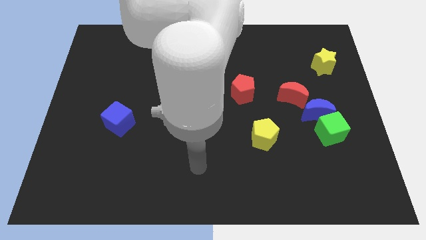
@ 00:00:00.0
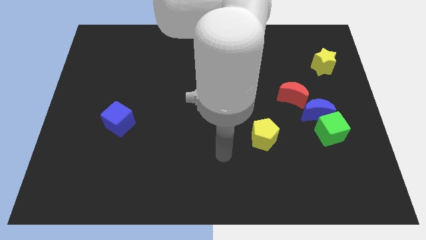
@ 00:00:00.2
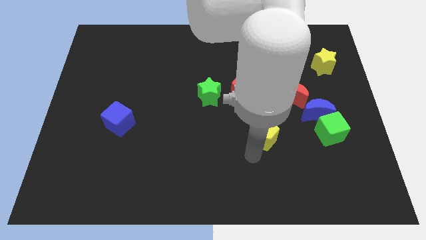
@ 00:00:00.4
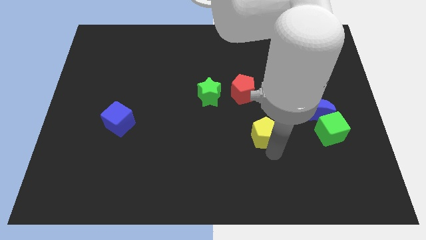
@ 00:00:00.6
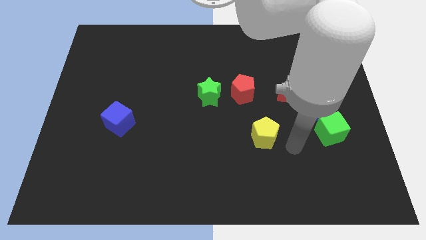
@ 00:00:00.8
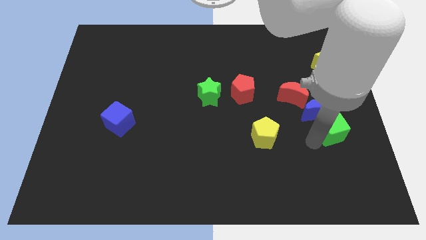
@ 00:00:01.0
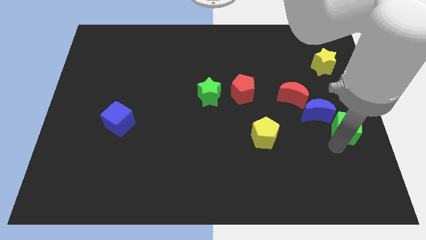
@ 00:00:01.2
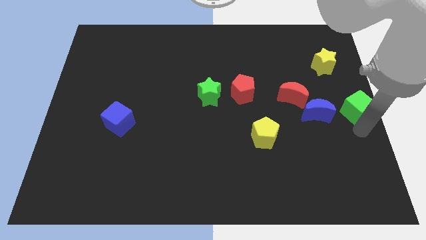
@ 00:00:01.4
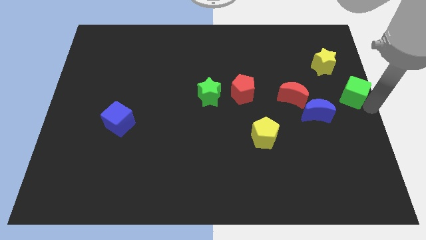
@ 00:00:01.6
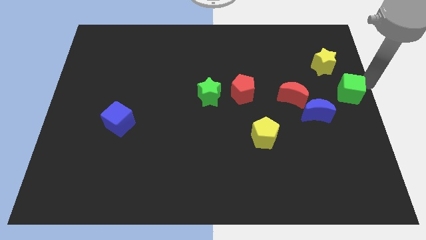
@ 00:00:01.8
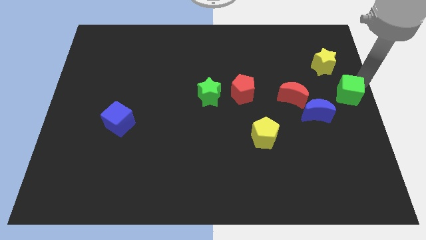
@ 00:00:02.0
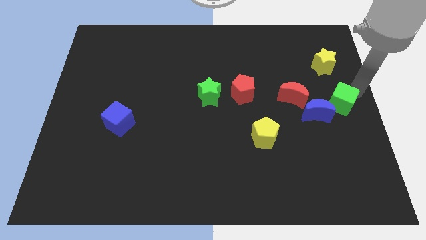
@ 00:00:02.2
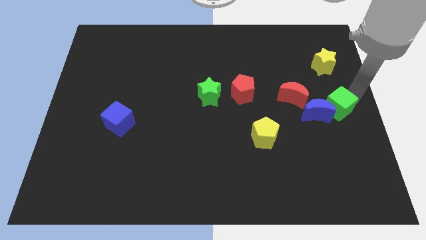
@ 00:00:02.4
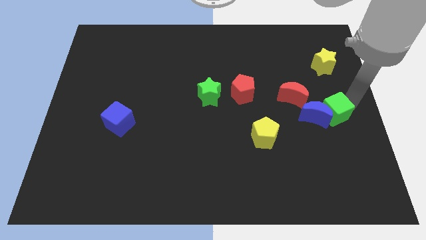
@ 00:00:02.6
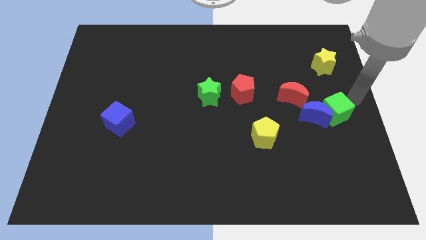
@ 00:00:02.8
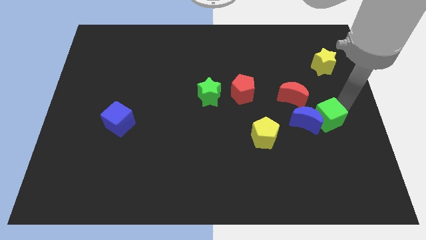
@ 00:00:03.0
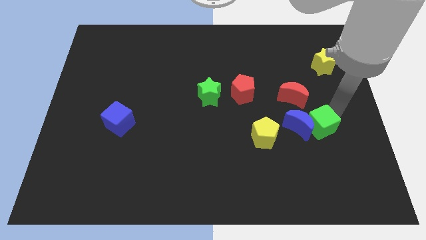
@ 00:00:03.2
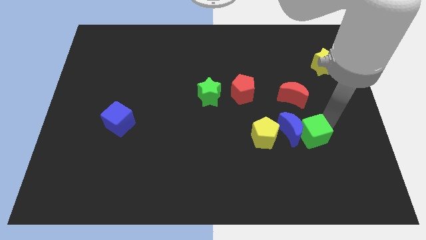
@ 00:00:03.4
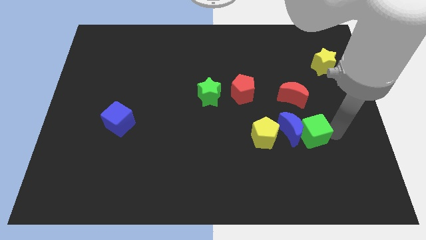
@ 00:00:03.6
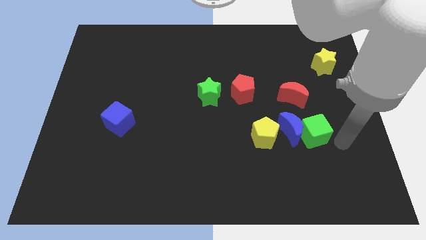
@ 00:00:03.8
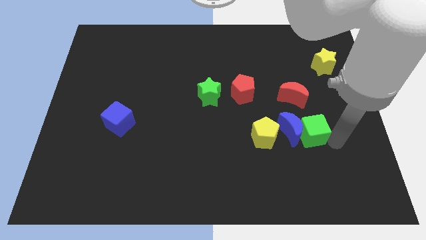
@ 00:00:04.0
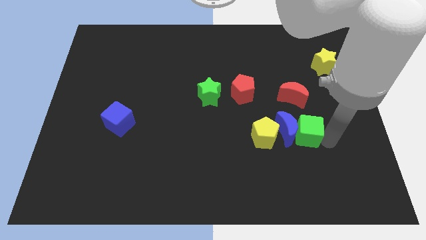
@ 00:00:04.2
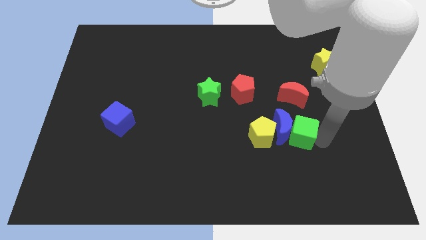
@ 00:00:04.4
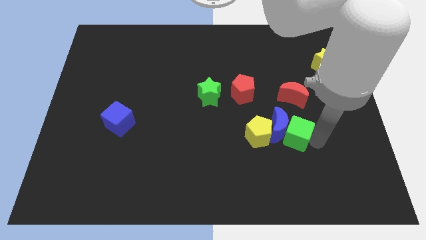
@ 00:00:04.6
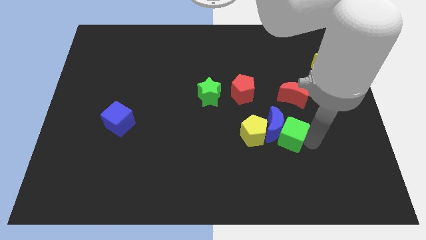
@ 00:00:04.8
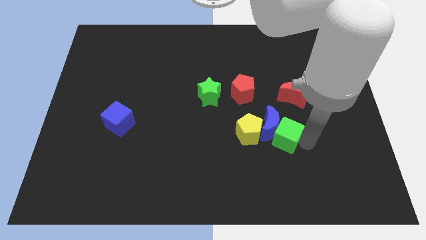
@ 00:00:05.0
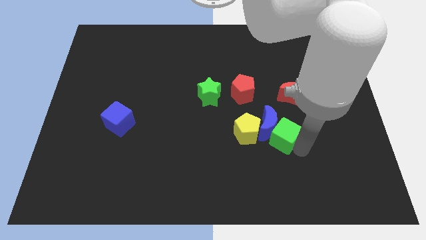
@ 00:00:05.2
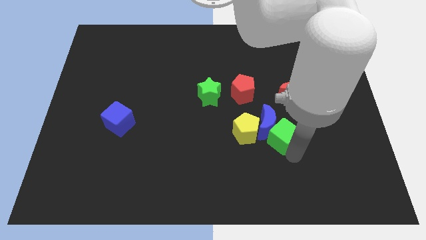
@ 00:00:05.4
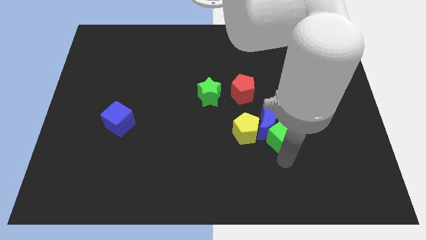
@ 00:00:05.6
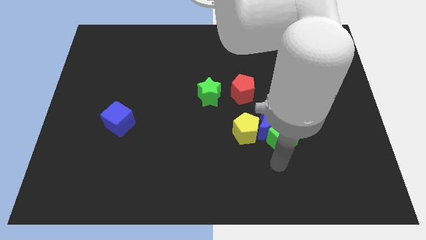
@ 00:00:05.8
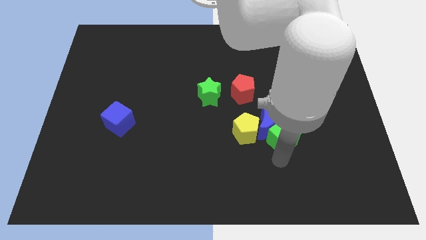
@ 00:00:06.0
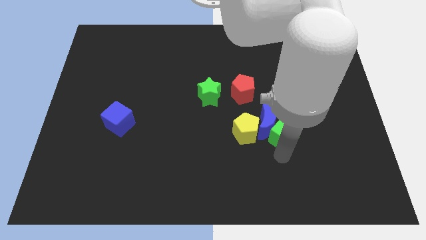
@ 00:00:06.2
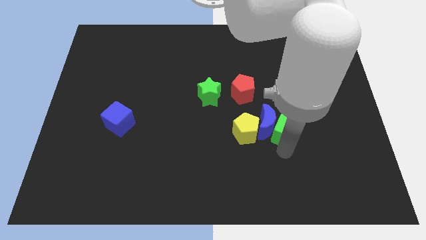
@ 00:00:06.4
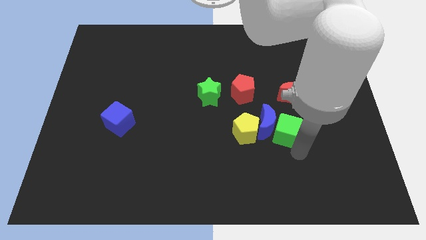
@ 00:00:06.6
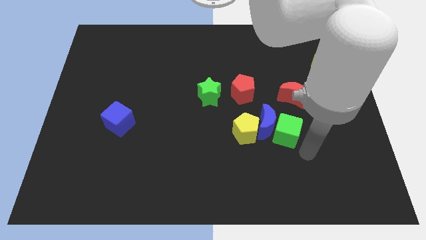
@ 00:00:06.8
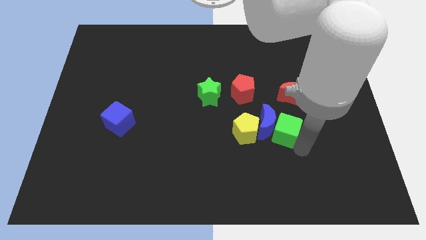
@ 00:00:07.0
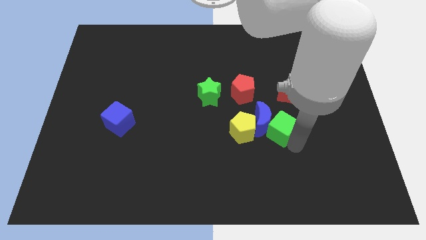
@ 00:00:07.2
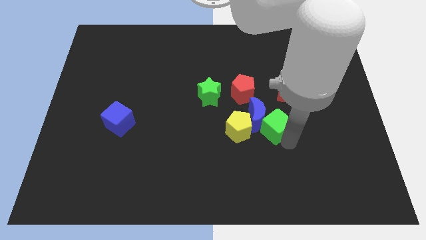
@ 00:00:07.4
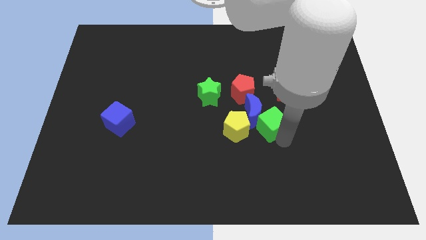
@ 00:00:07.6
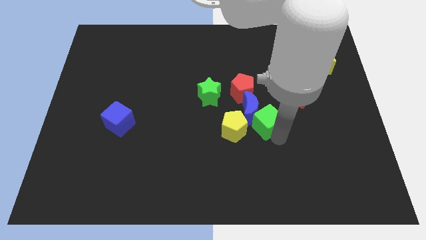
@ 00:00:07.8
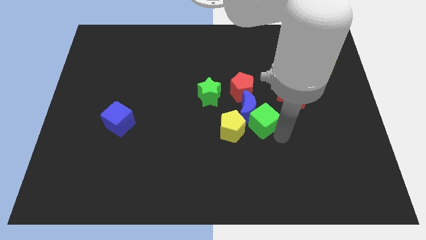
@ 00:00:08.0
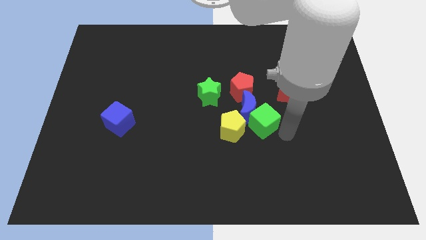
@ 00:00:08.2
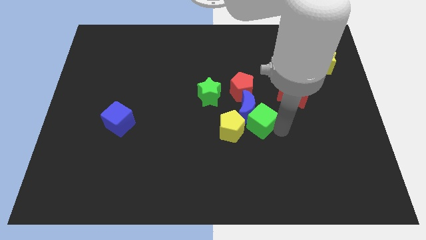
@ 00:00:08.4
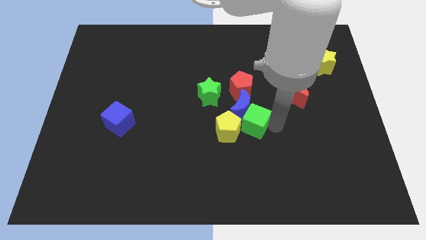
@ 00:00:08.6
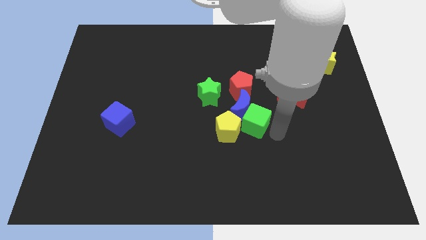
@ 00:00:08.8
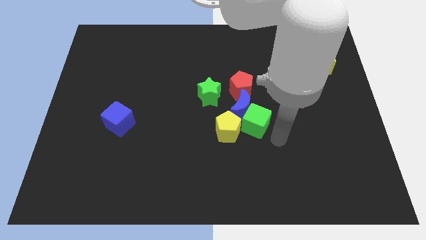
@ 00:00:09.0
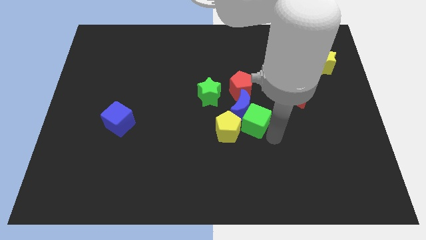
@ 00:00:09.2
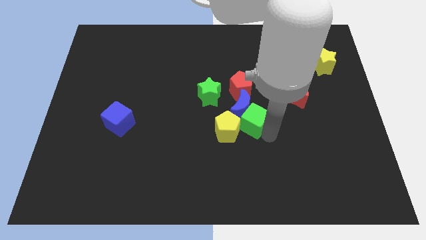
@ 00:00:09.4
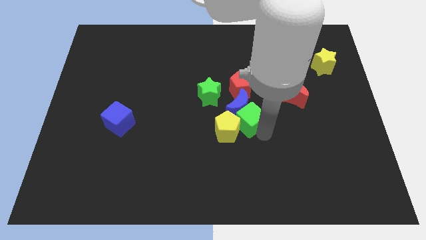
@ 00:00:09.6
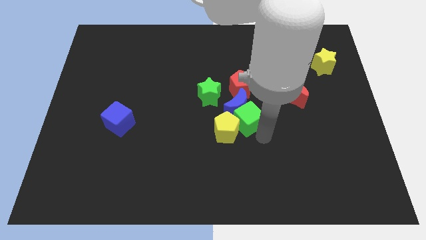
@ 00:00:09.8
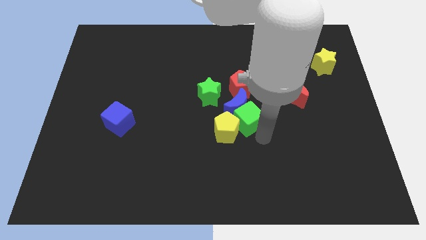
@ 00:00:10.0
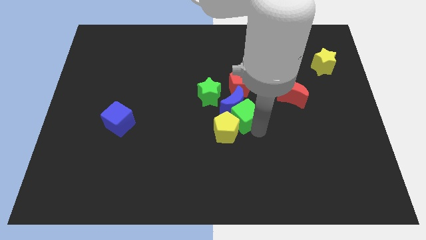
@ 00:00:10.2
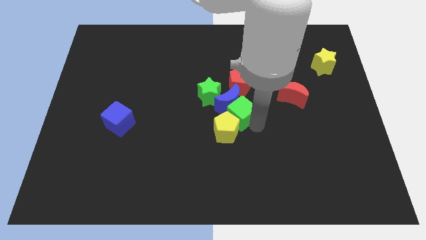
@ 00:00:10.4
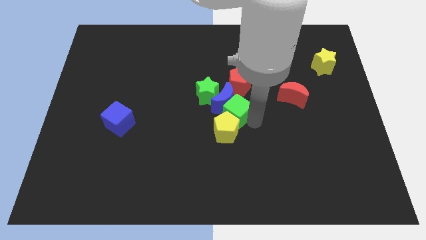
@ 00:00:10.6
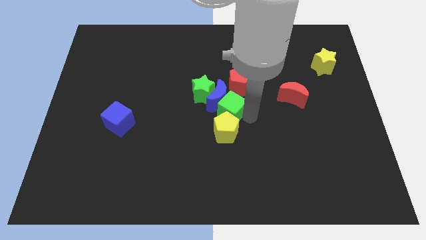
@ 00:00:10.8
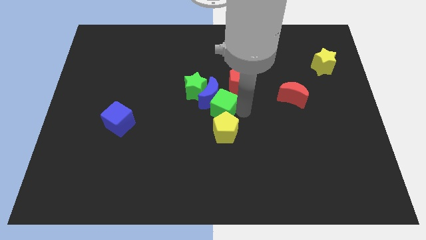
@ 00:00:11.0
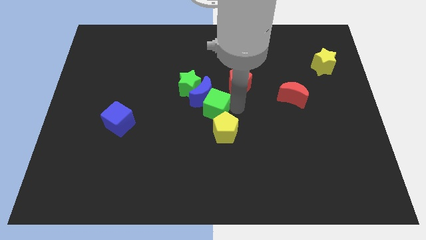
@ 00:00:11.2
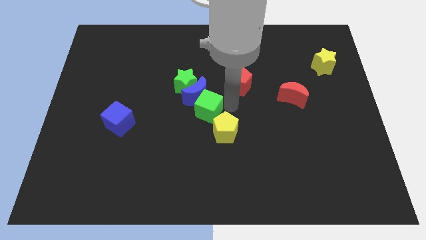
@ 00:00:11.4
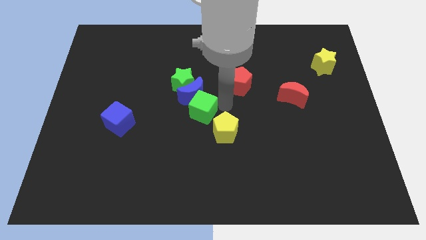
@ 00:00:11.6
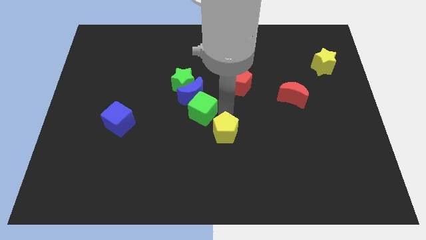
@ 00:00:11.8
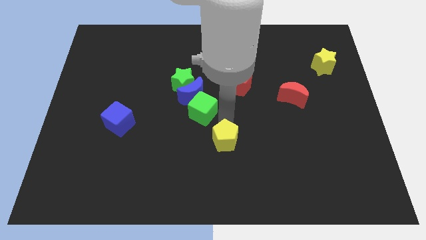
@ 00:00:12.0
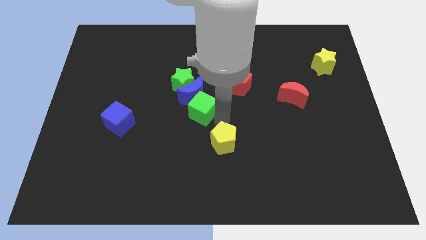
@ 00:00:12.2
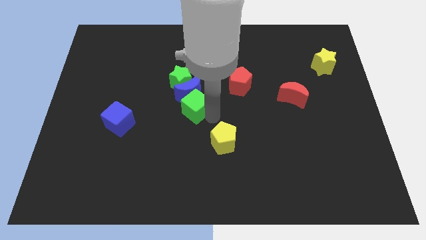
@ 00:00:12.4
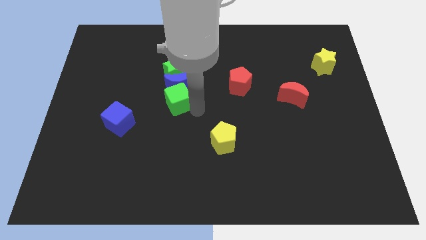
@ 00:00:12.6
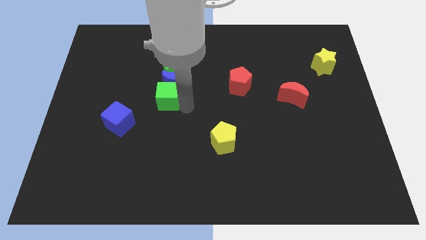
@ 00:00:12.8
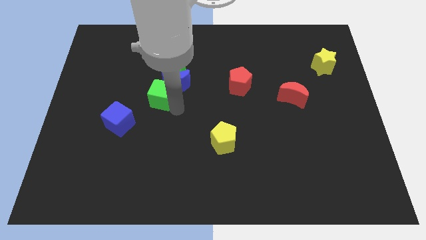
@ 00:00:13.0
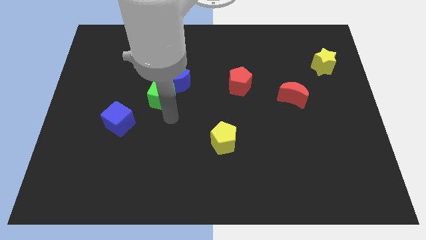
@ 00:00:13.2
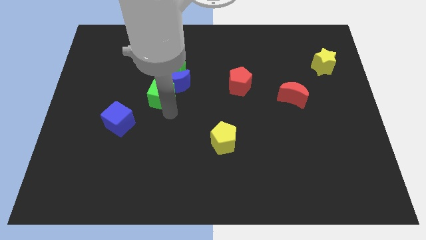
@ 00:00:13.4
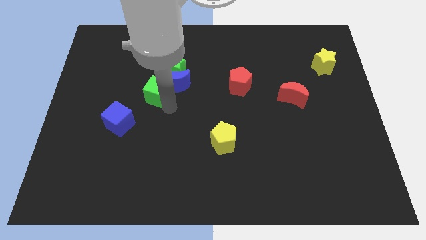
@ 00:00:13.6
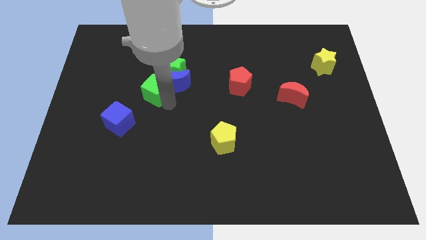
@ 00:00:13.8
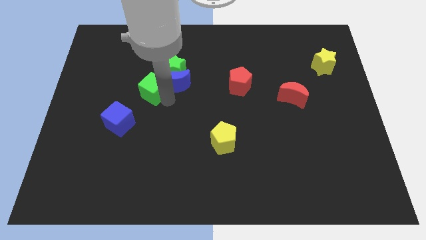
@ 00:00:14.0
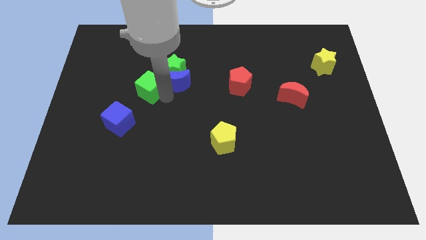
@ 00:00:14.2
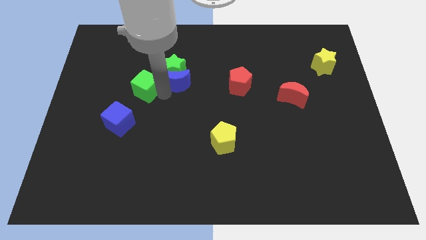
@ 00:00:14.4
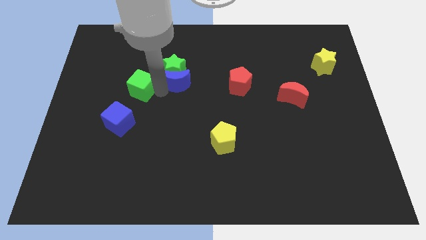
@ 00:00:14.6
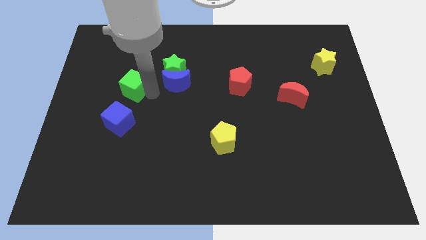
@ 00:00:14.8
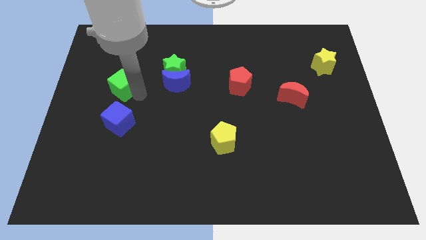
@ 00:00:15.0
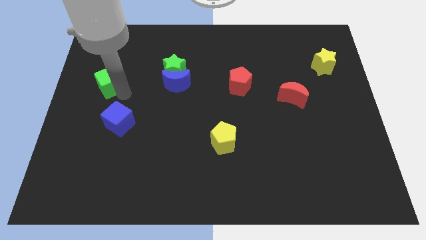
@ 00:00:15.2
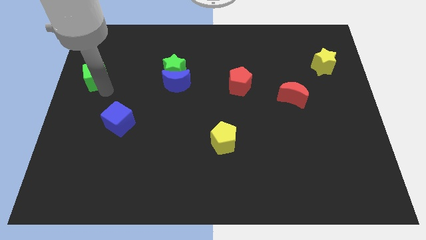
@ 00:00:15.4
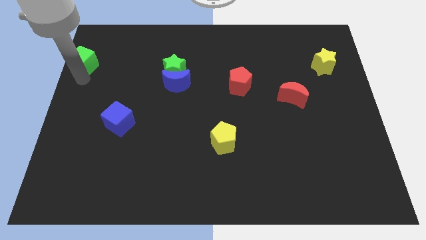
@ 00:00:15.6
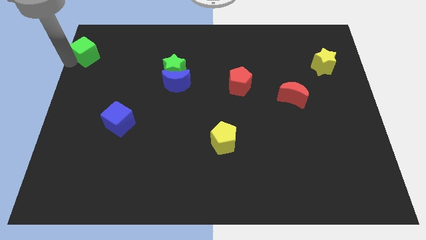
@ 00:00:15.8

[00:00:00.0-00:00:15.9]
slide the green cube to the top left of the board
